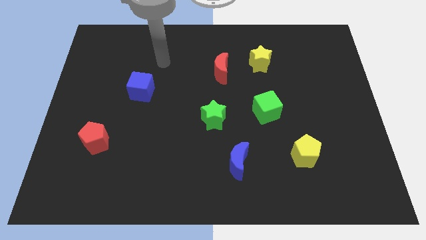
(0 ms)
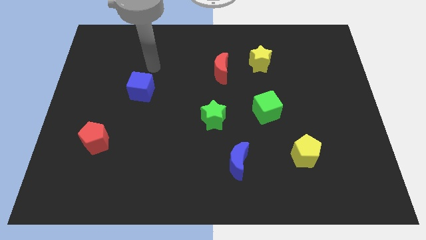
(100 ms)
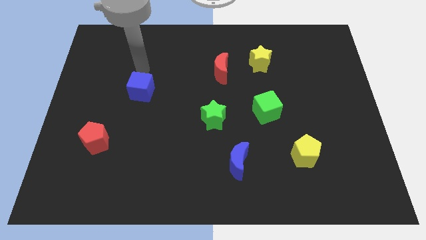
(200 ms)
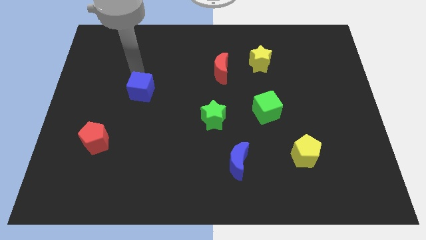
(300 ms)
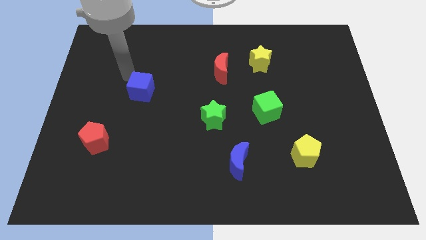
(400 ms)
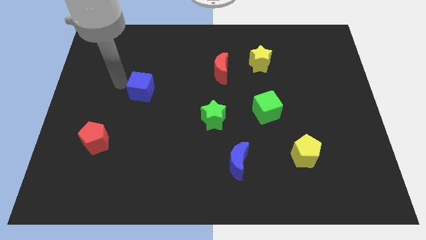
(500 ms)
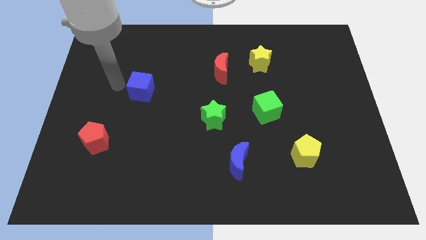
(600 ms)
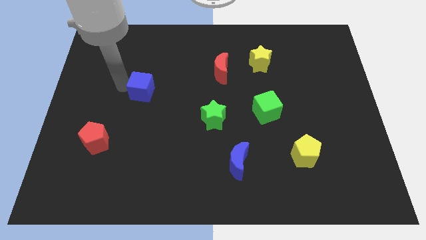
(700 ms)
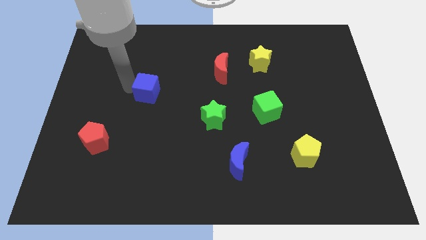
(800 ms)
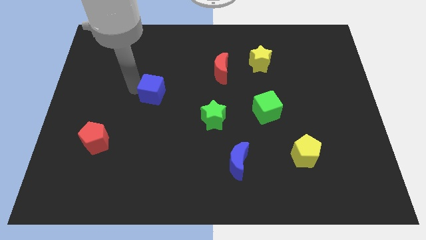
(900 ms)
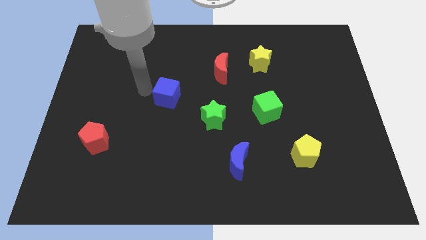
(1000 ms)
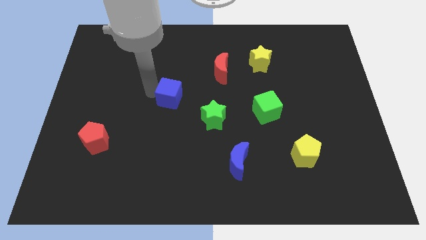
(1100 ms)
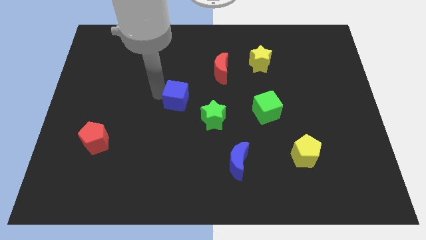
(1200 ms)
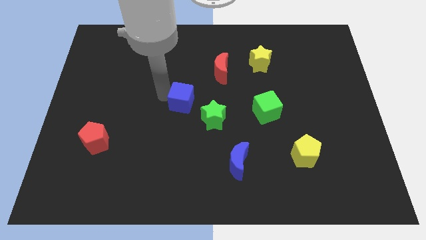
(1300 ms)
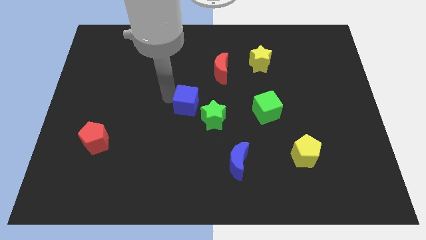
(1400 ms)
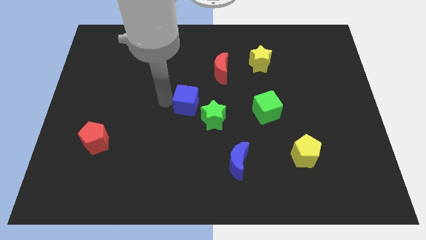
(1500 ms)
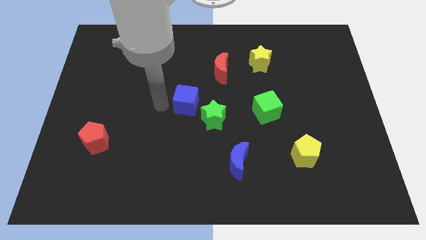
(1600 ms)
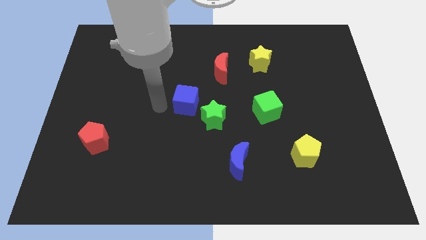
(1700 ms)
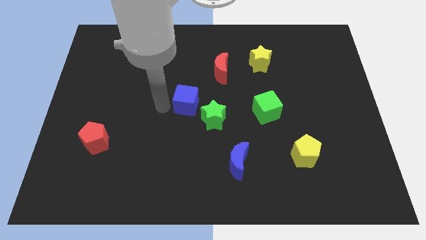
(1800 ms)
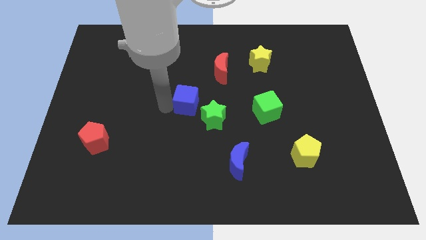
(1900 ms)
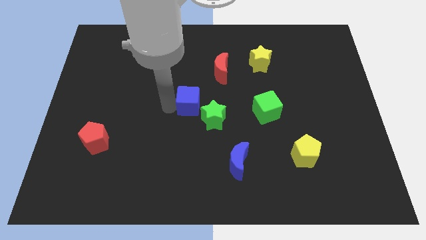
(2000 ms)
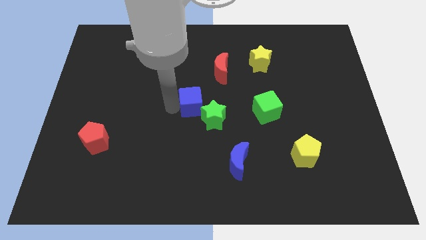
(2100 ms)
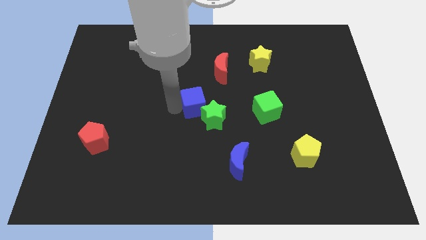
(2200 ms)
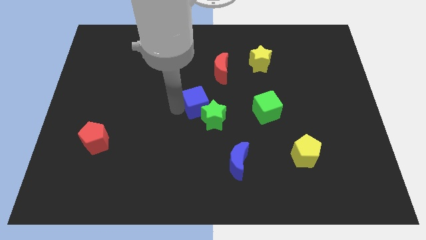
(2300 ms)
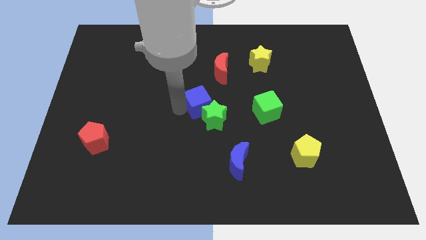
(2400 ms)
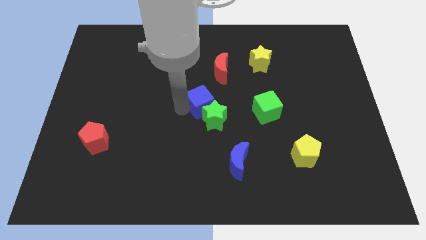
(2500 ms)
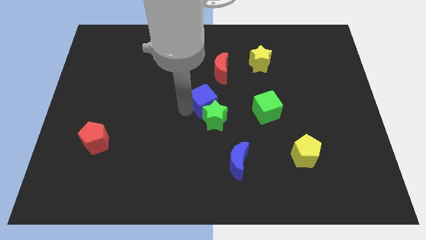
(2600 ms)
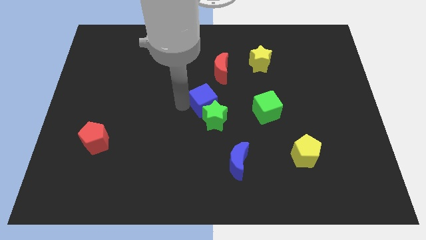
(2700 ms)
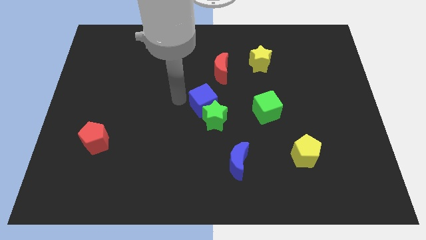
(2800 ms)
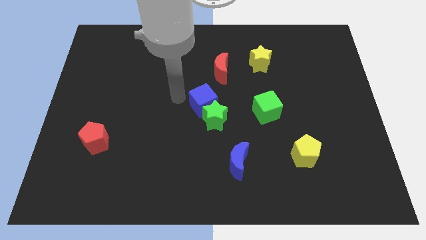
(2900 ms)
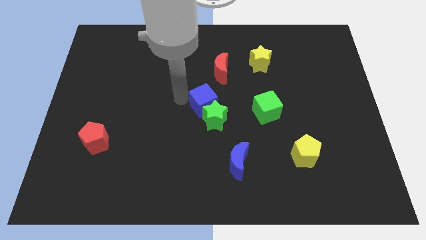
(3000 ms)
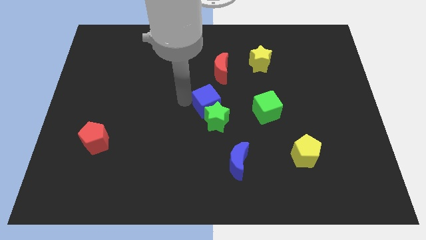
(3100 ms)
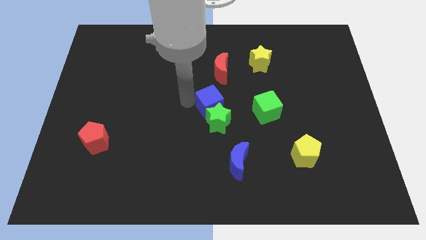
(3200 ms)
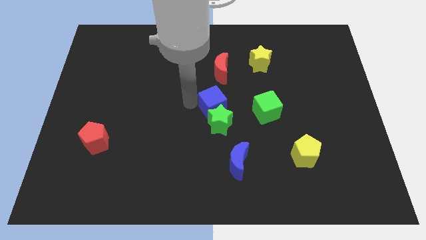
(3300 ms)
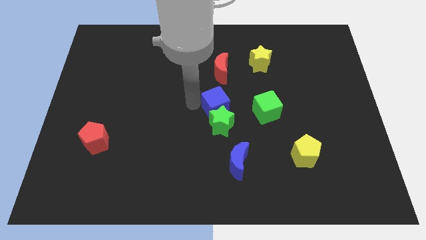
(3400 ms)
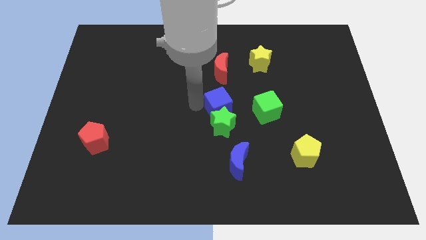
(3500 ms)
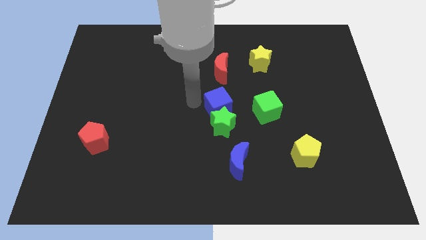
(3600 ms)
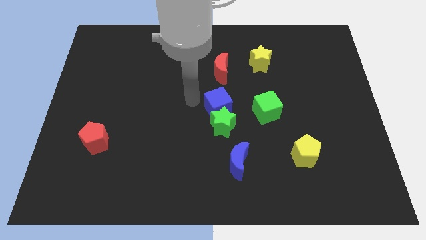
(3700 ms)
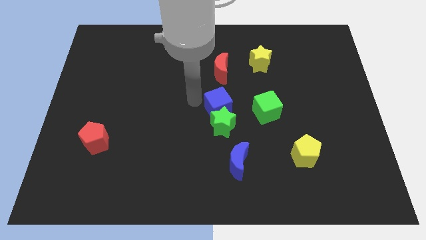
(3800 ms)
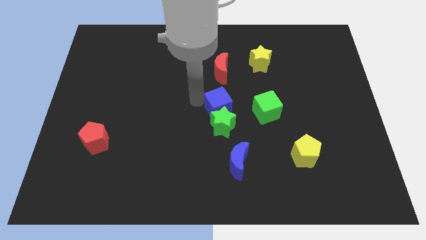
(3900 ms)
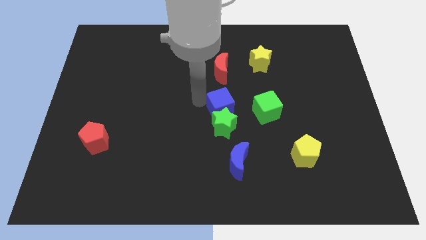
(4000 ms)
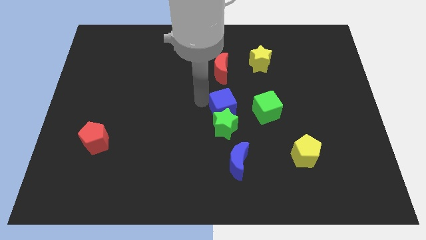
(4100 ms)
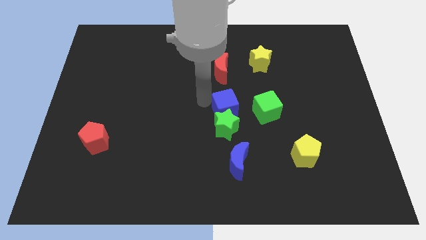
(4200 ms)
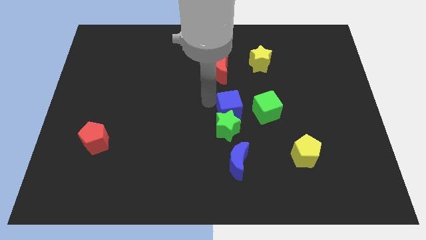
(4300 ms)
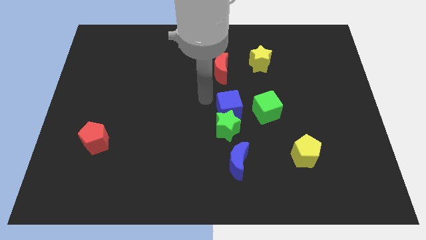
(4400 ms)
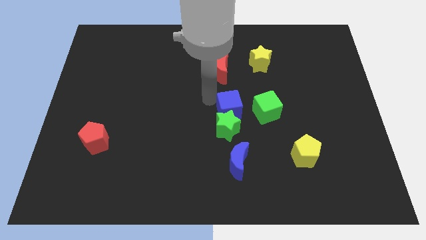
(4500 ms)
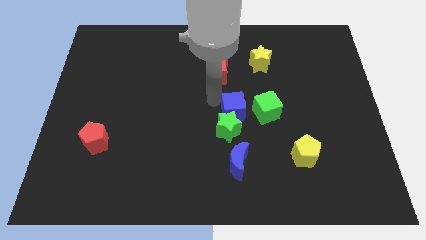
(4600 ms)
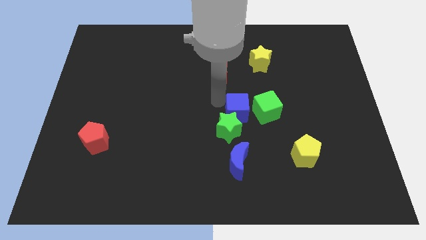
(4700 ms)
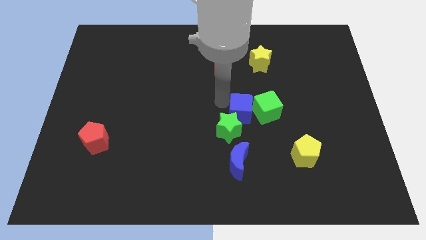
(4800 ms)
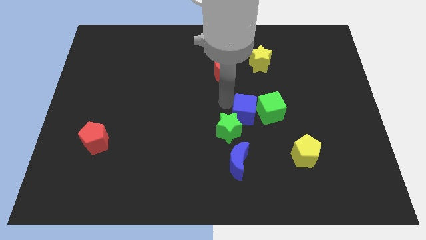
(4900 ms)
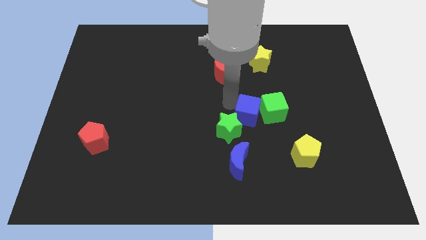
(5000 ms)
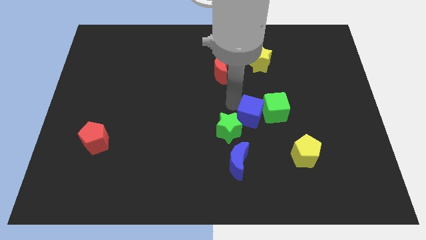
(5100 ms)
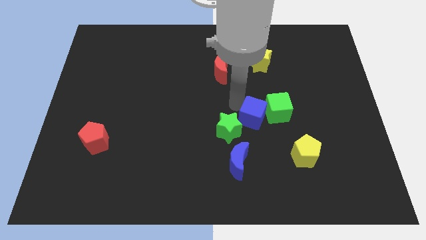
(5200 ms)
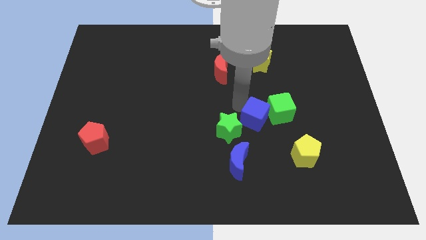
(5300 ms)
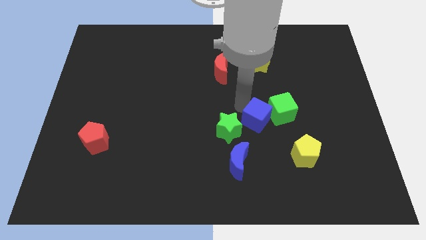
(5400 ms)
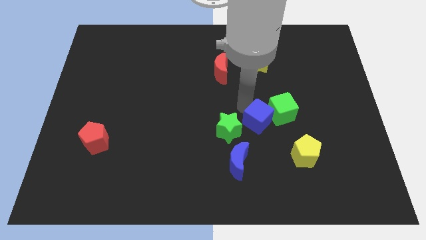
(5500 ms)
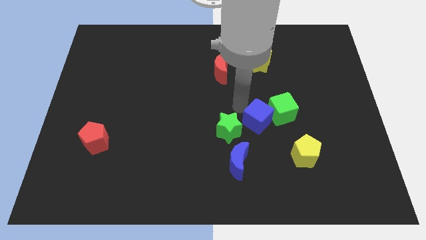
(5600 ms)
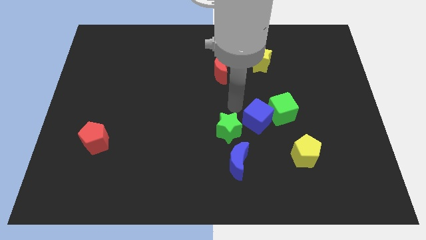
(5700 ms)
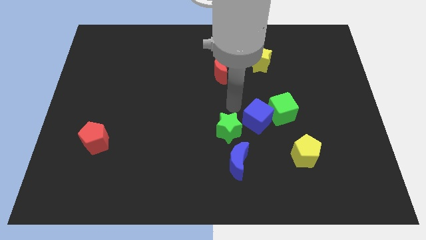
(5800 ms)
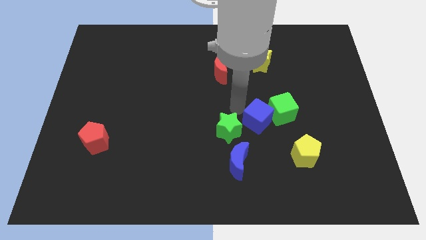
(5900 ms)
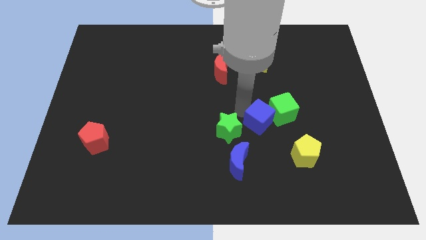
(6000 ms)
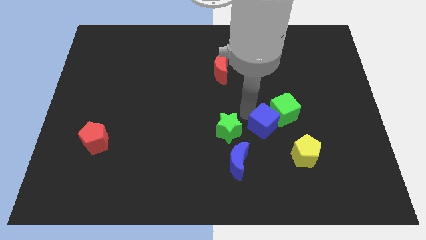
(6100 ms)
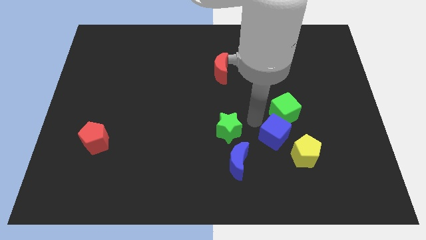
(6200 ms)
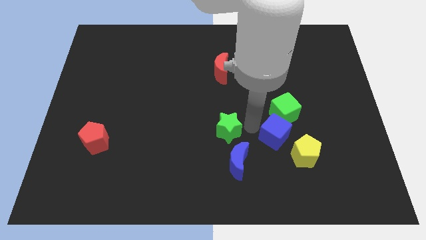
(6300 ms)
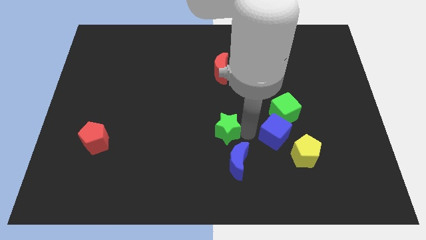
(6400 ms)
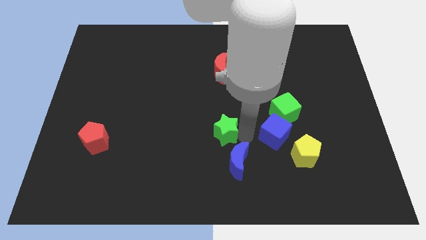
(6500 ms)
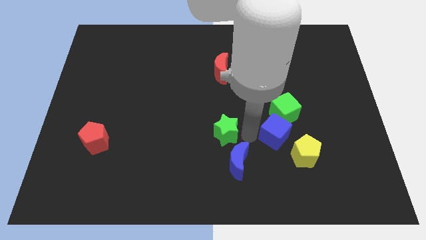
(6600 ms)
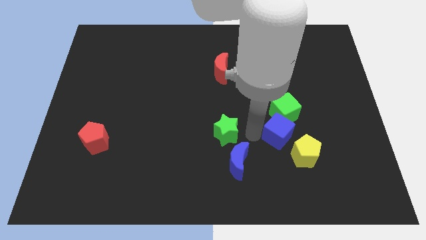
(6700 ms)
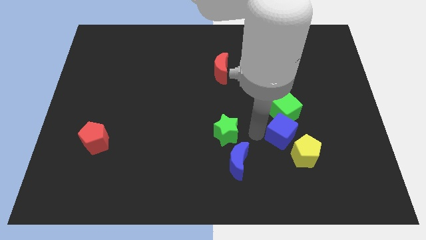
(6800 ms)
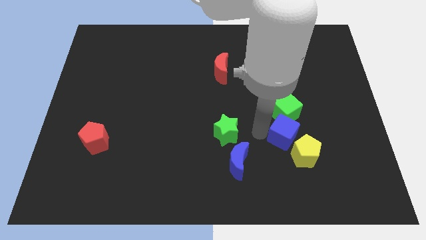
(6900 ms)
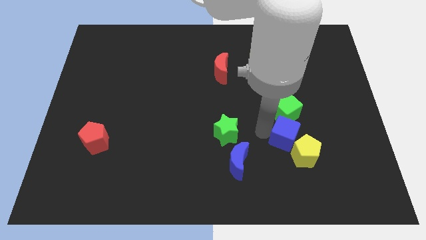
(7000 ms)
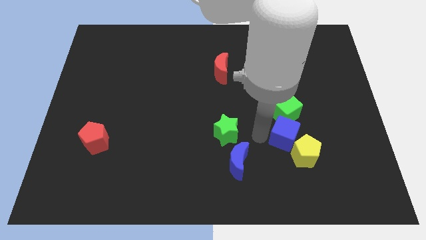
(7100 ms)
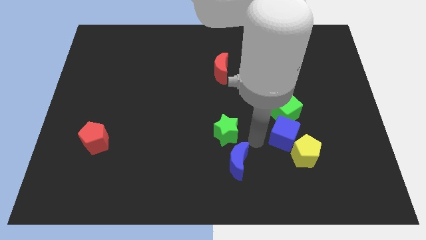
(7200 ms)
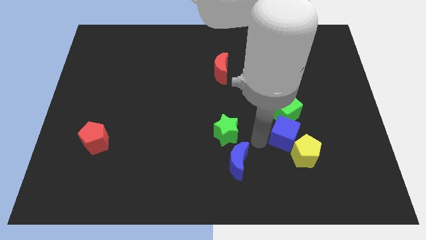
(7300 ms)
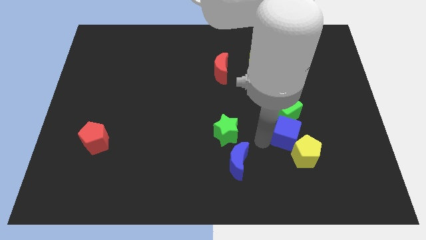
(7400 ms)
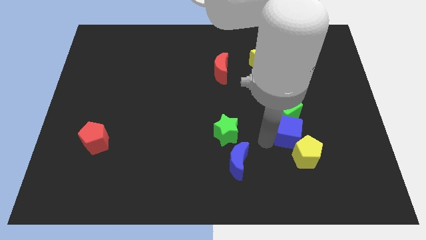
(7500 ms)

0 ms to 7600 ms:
push the blue cube to the bottom right of the green cube
